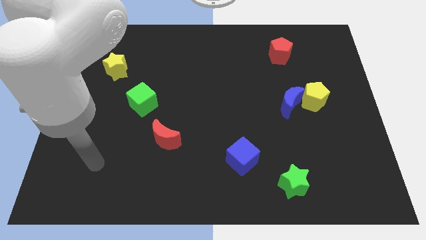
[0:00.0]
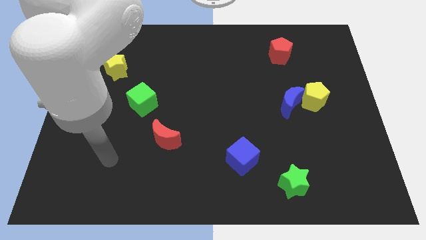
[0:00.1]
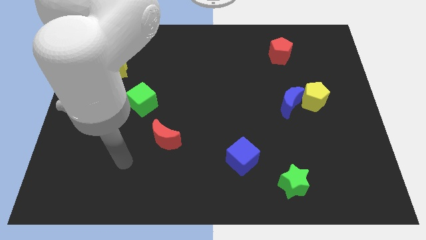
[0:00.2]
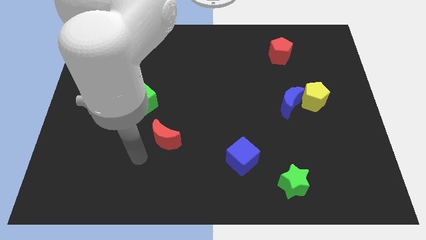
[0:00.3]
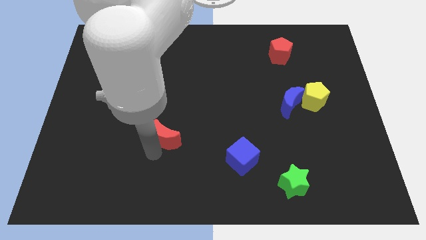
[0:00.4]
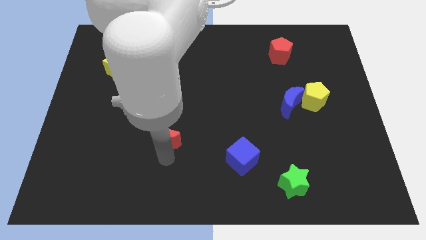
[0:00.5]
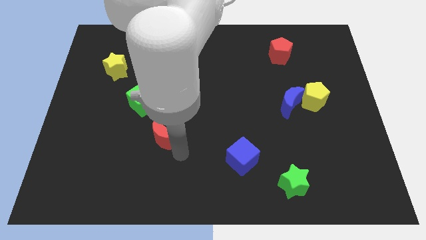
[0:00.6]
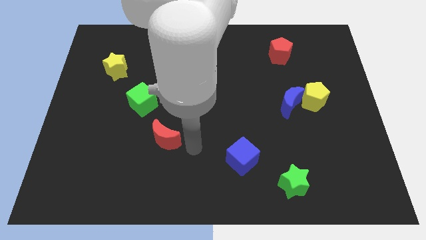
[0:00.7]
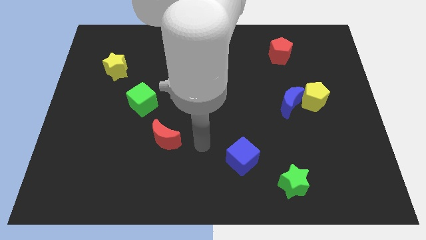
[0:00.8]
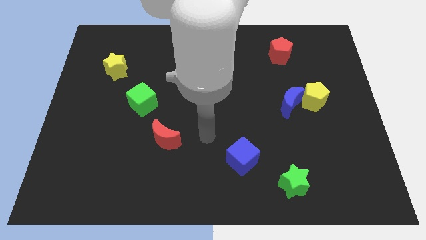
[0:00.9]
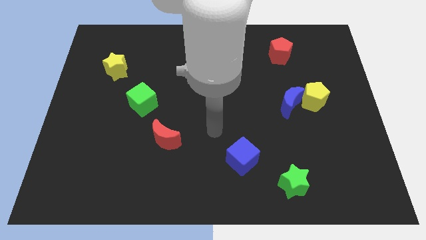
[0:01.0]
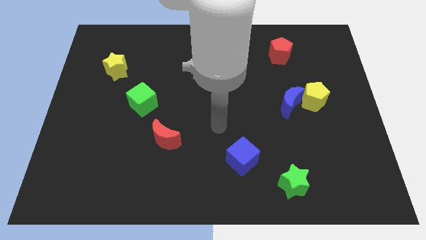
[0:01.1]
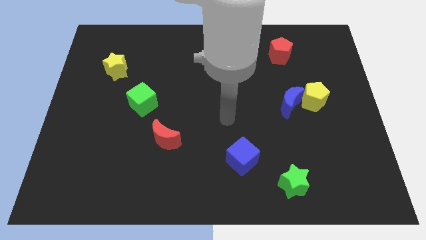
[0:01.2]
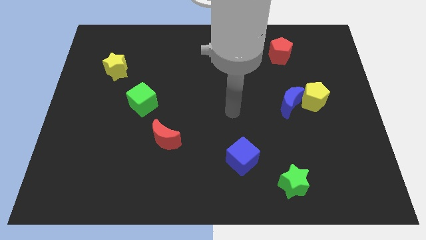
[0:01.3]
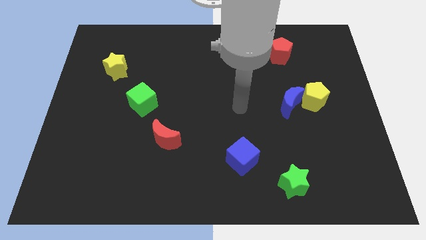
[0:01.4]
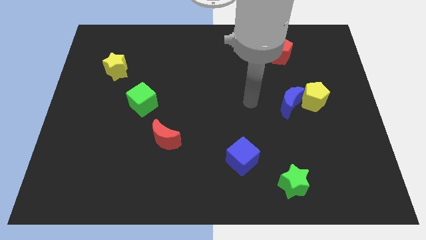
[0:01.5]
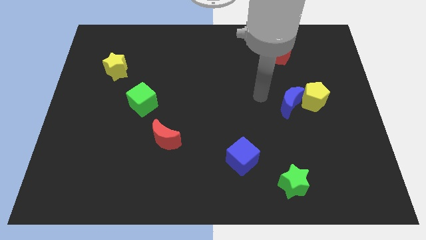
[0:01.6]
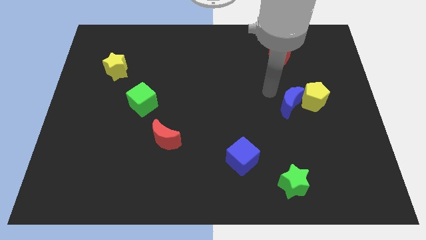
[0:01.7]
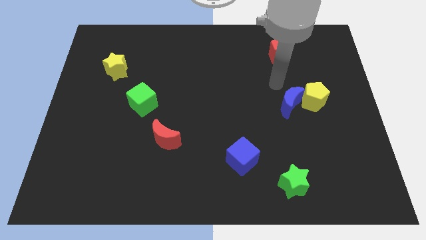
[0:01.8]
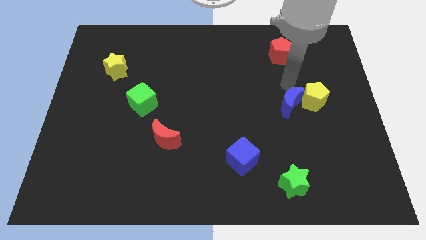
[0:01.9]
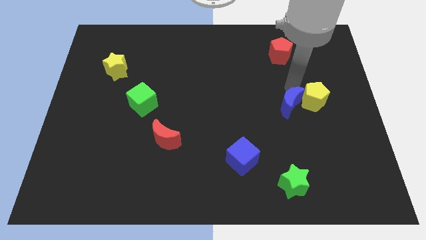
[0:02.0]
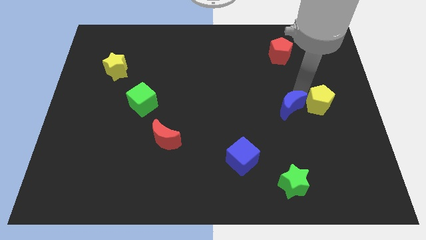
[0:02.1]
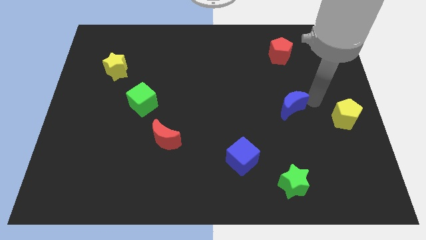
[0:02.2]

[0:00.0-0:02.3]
separate the blue moon from the yellow pentagon

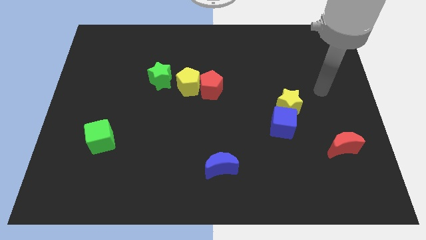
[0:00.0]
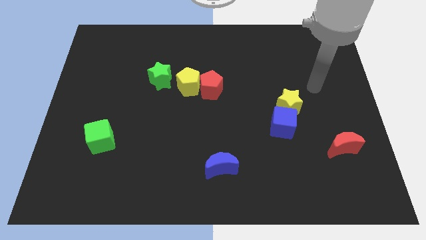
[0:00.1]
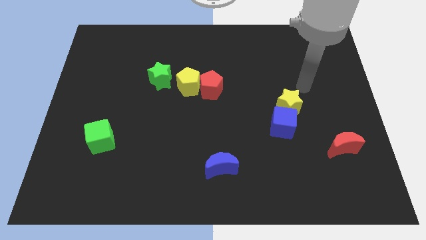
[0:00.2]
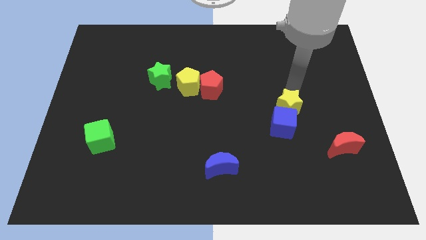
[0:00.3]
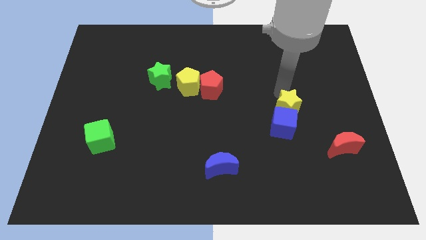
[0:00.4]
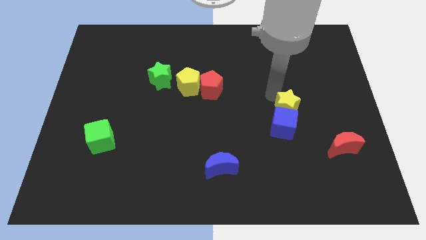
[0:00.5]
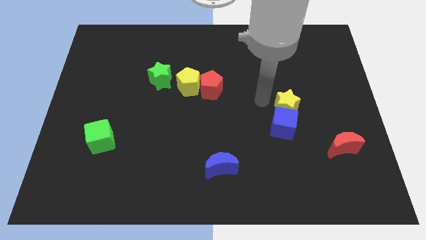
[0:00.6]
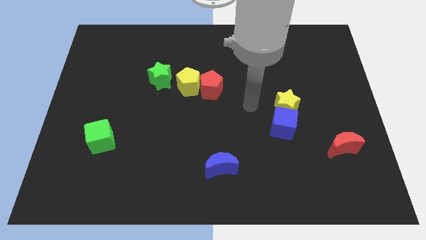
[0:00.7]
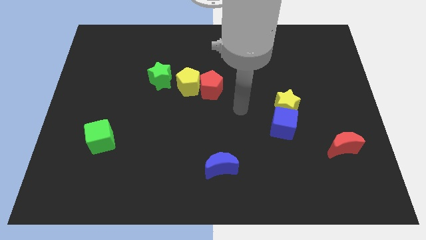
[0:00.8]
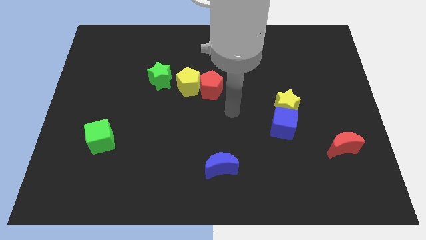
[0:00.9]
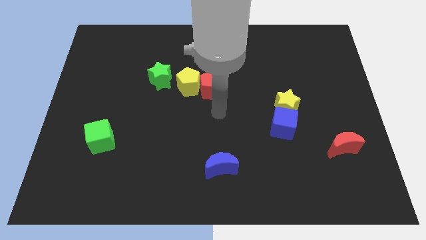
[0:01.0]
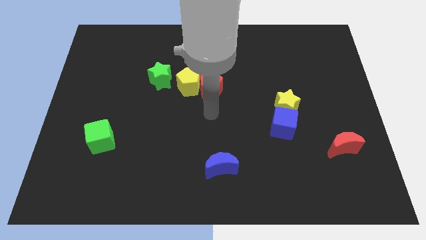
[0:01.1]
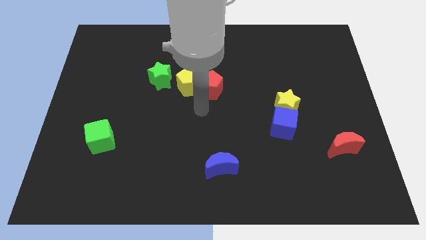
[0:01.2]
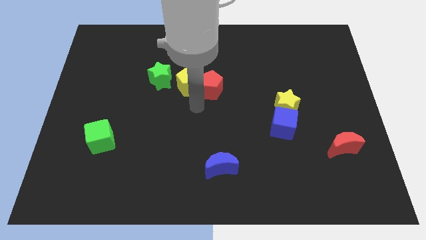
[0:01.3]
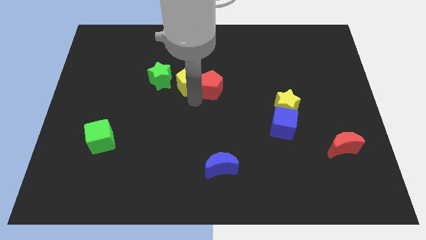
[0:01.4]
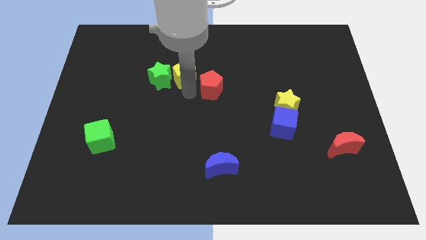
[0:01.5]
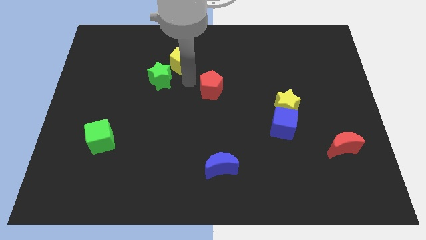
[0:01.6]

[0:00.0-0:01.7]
pull the red pentagon apart from the yellow pentagon

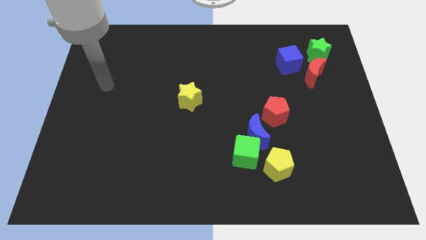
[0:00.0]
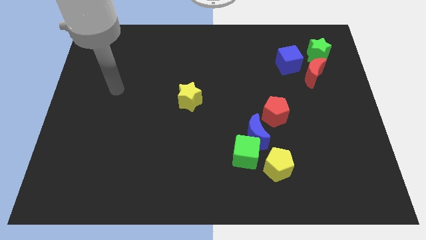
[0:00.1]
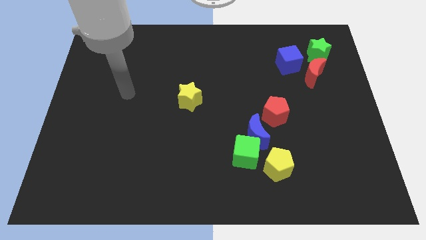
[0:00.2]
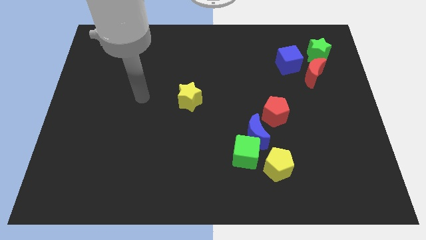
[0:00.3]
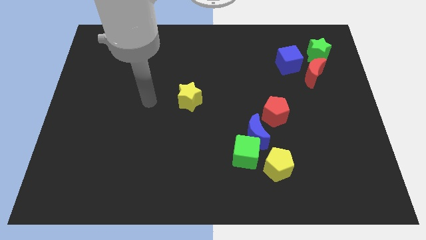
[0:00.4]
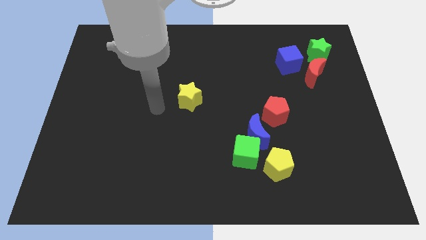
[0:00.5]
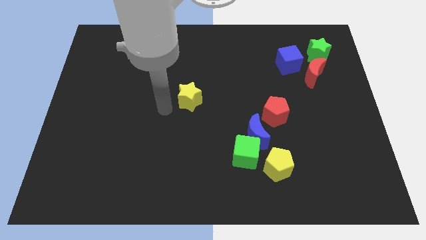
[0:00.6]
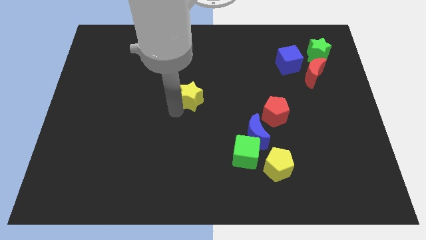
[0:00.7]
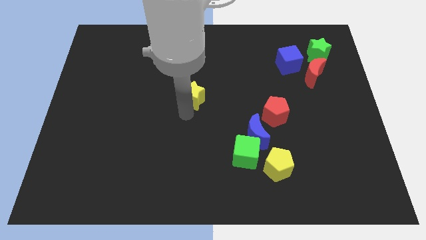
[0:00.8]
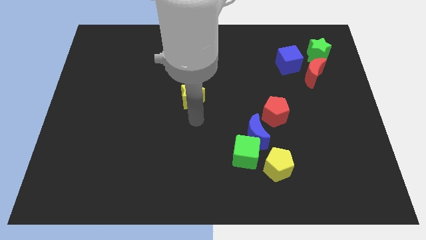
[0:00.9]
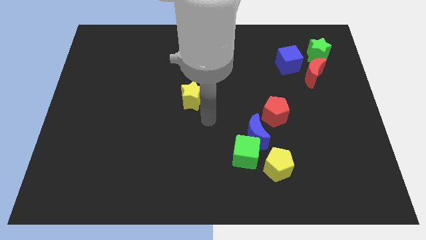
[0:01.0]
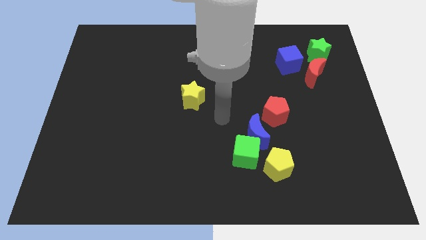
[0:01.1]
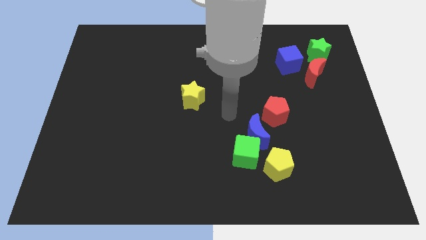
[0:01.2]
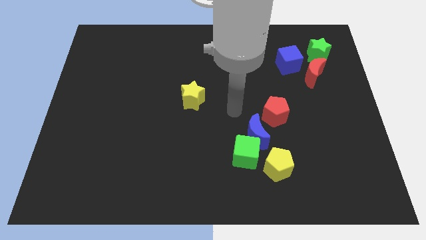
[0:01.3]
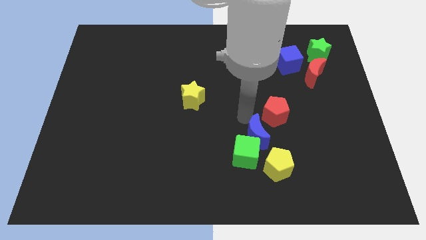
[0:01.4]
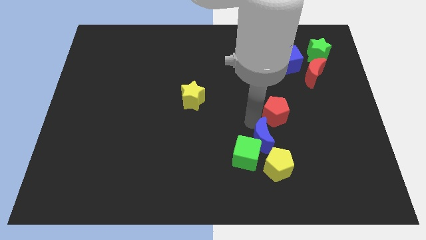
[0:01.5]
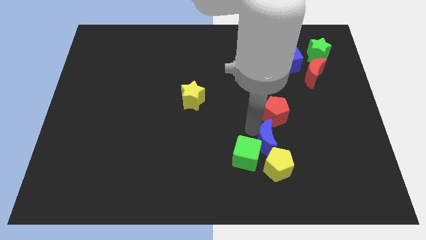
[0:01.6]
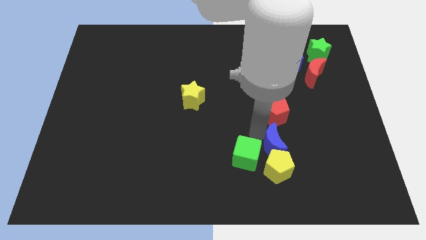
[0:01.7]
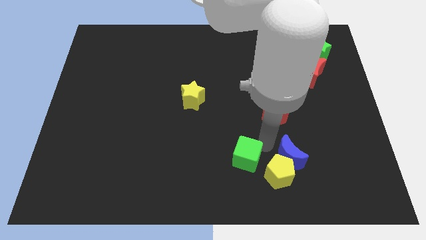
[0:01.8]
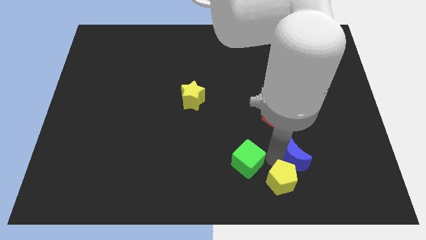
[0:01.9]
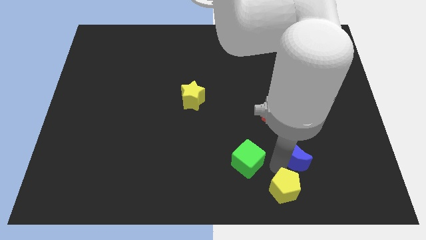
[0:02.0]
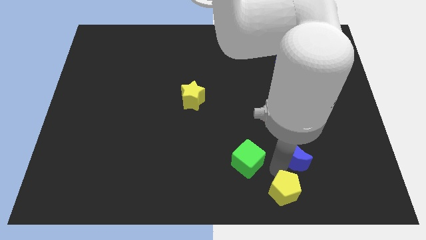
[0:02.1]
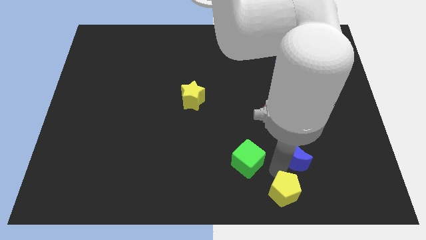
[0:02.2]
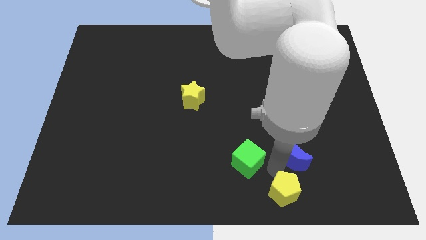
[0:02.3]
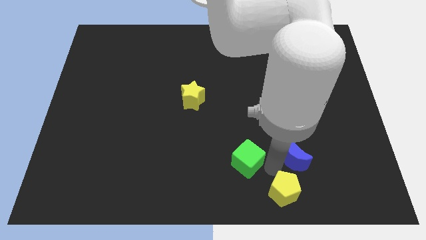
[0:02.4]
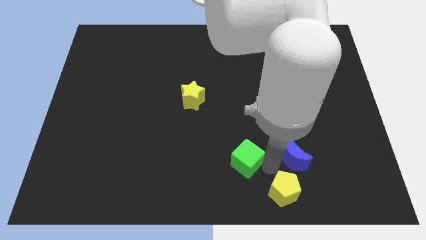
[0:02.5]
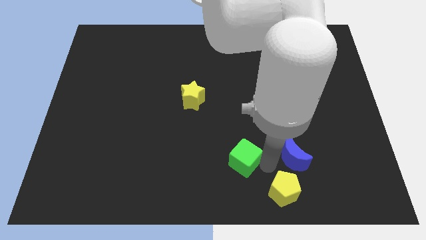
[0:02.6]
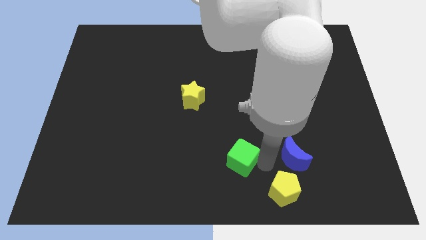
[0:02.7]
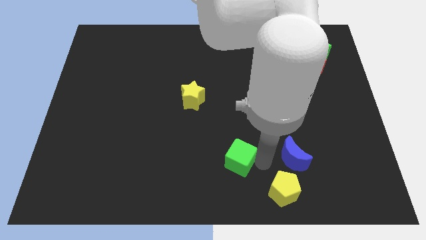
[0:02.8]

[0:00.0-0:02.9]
pull the green cube apart from the blue moon and yellow pentagon

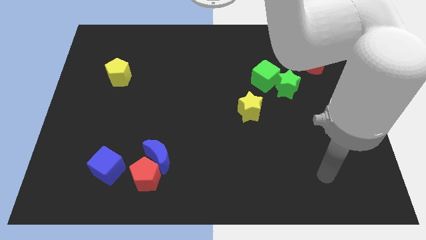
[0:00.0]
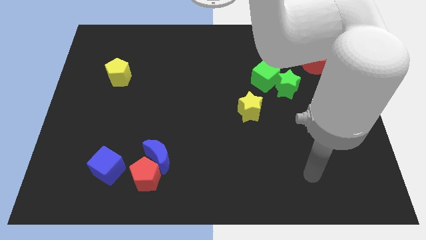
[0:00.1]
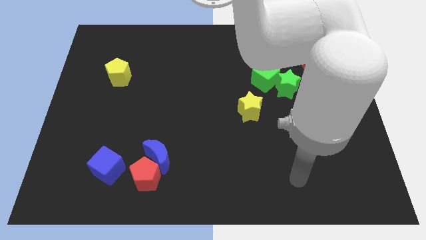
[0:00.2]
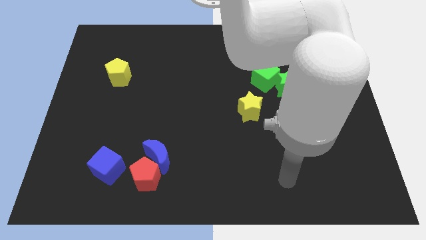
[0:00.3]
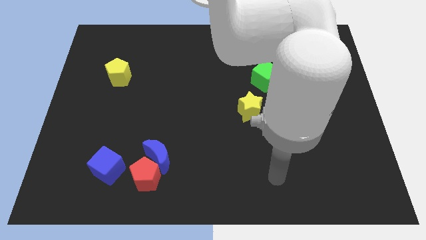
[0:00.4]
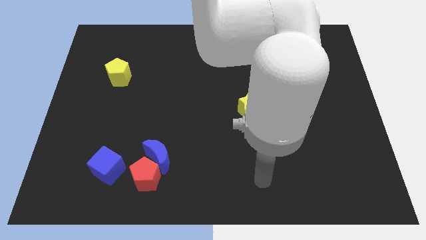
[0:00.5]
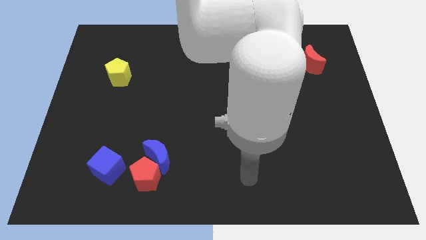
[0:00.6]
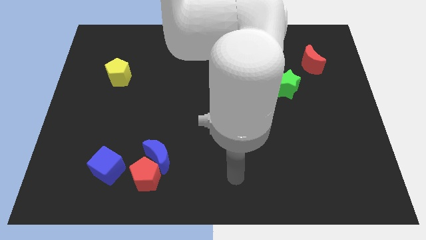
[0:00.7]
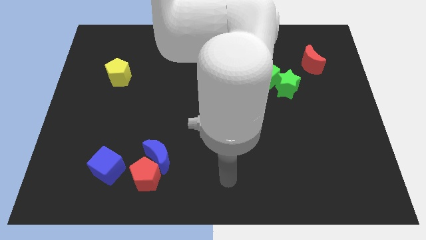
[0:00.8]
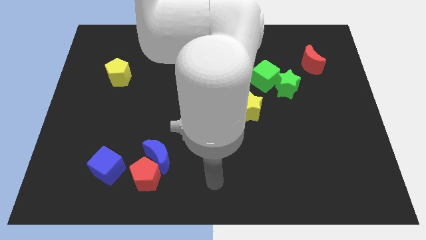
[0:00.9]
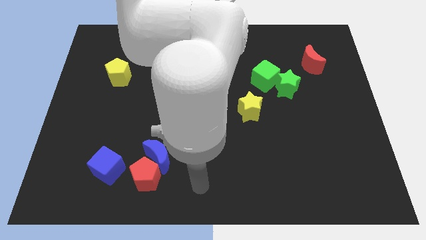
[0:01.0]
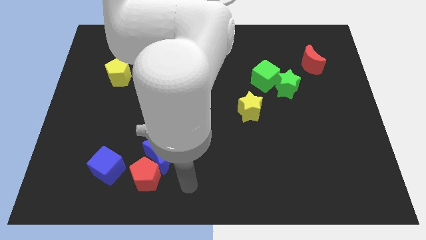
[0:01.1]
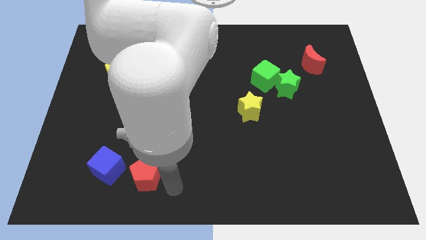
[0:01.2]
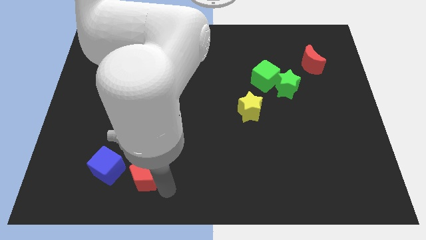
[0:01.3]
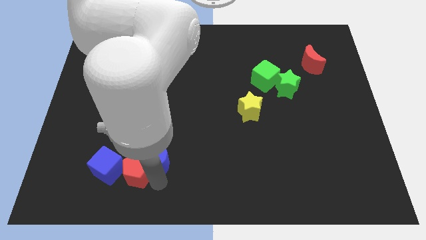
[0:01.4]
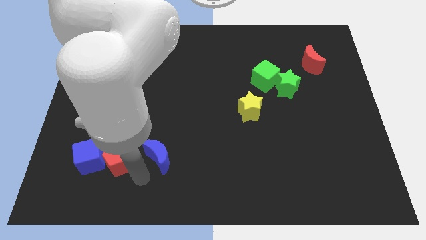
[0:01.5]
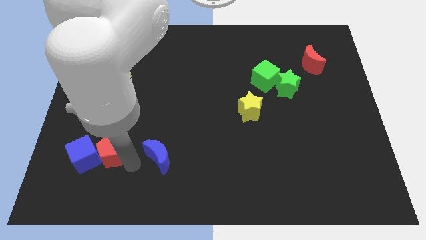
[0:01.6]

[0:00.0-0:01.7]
separate the blue moon from the red pentagon

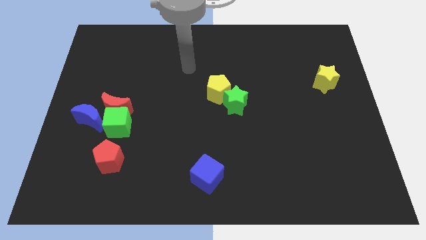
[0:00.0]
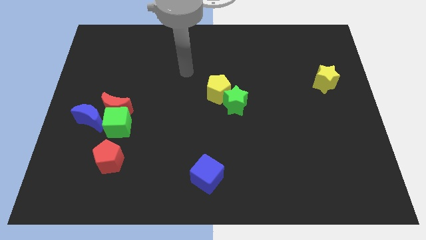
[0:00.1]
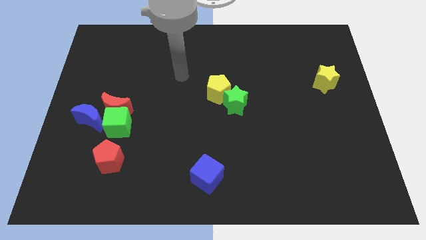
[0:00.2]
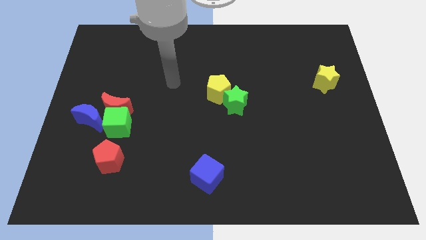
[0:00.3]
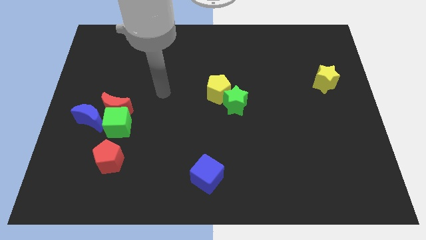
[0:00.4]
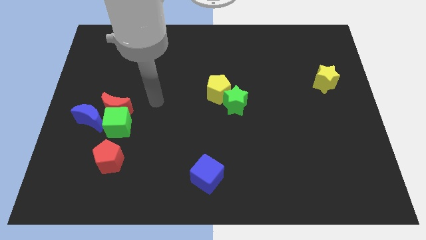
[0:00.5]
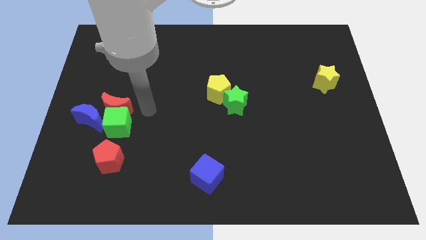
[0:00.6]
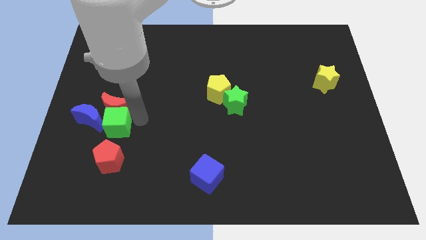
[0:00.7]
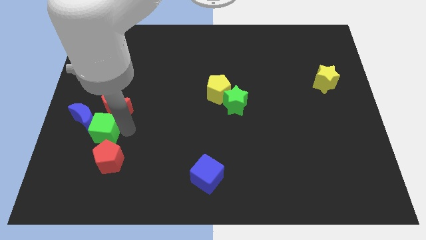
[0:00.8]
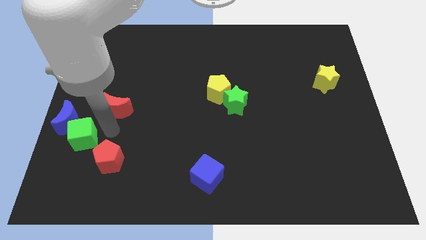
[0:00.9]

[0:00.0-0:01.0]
separate the red moon from the green cube and blue moon
